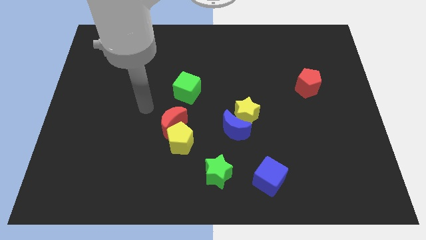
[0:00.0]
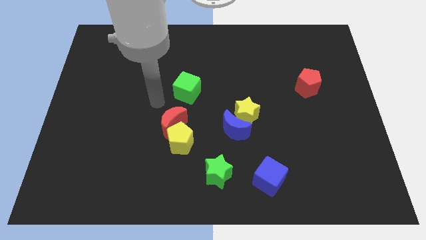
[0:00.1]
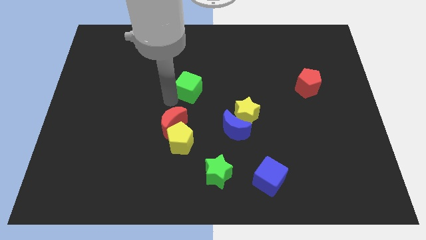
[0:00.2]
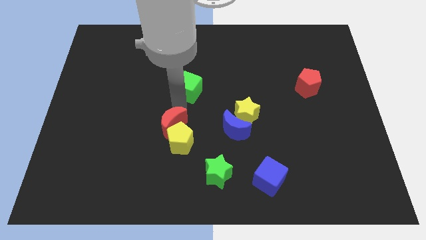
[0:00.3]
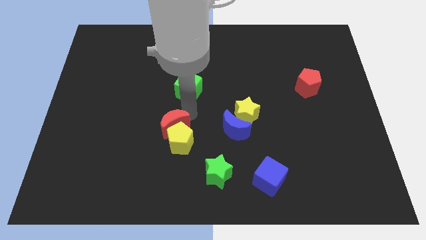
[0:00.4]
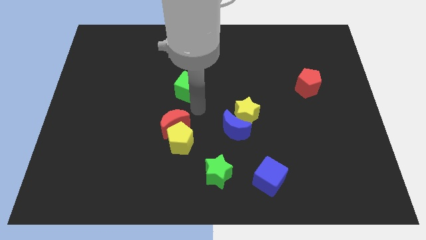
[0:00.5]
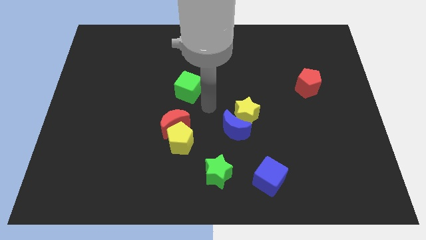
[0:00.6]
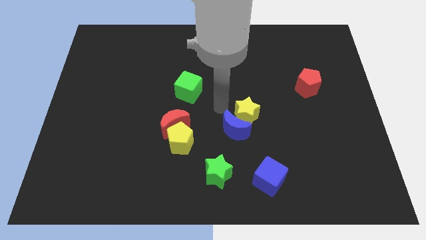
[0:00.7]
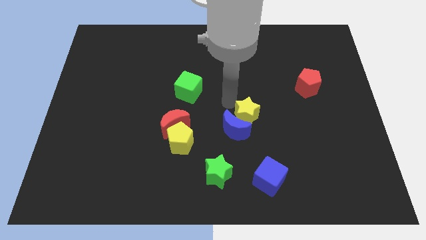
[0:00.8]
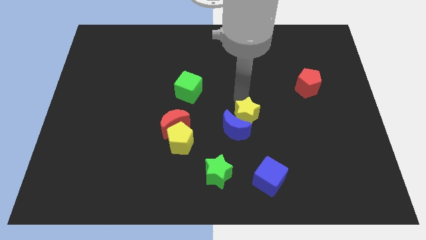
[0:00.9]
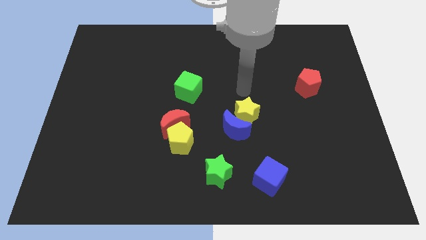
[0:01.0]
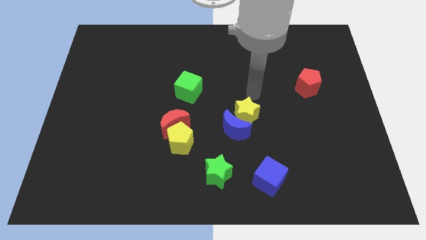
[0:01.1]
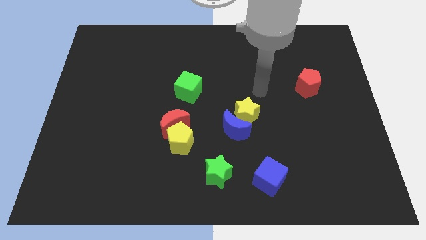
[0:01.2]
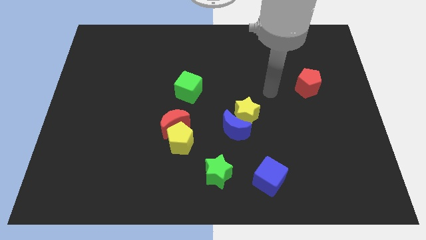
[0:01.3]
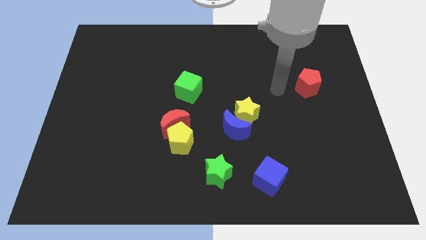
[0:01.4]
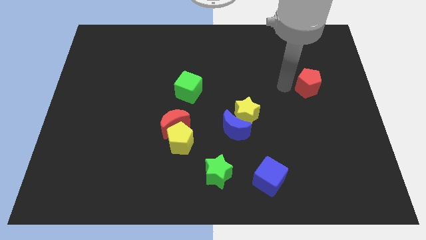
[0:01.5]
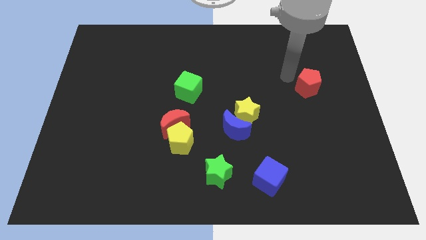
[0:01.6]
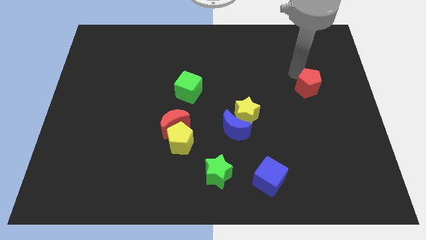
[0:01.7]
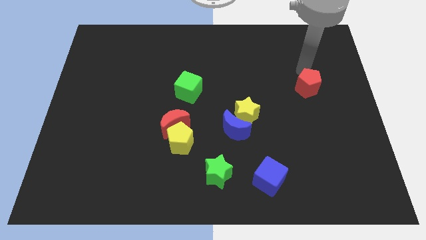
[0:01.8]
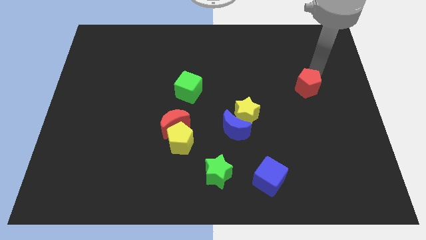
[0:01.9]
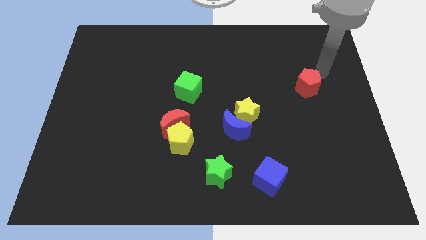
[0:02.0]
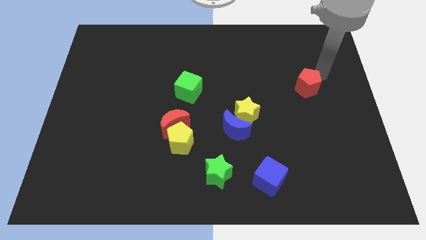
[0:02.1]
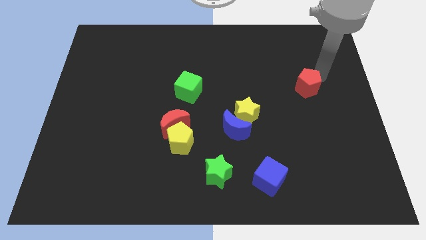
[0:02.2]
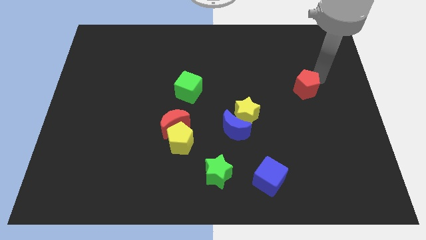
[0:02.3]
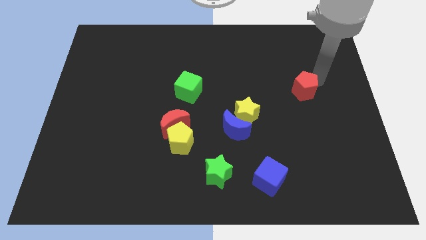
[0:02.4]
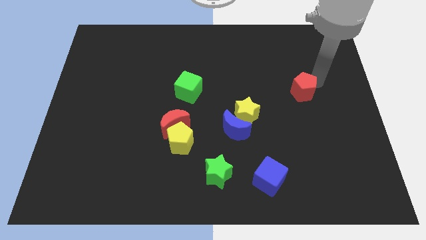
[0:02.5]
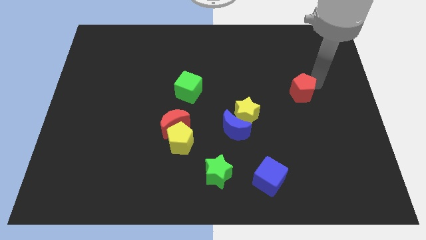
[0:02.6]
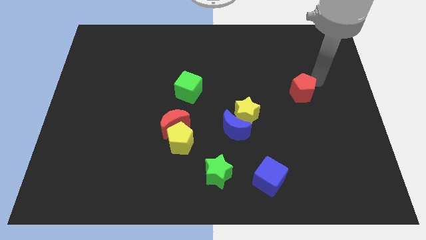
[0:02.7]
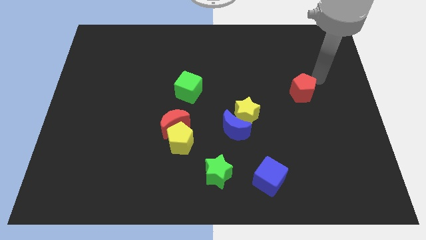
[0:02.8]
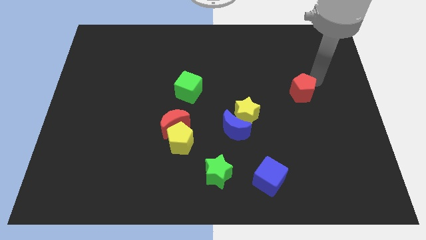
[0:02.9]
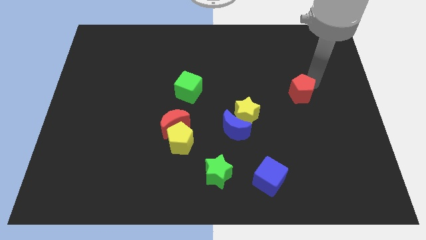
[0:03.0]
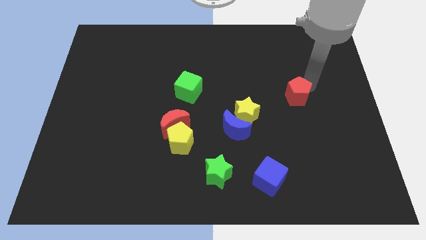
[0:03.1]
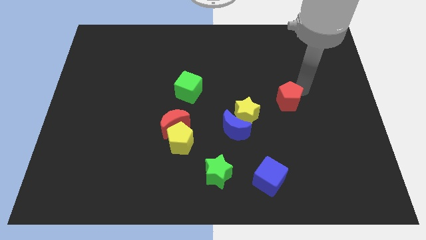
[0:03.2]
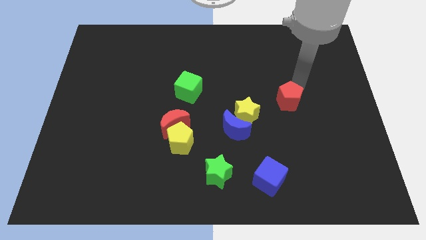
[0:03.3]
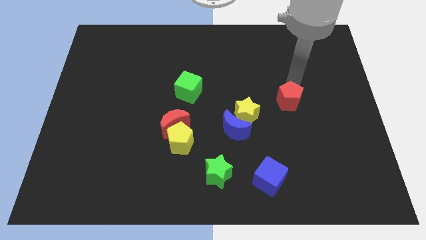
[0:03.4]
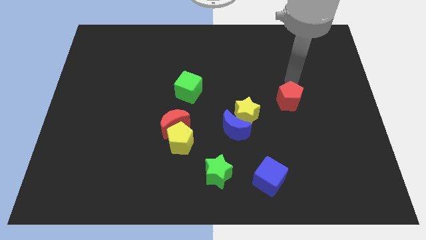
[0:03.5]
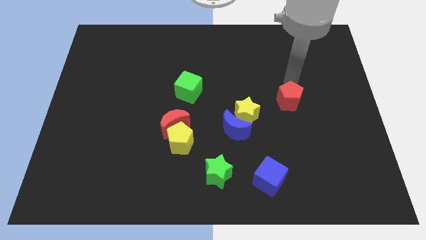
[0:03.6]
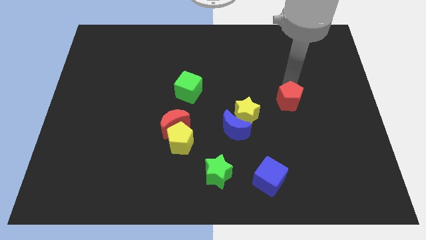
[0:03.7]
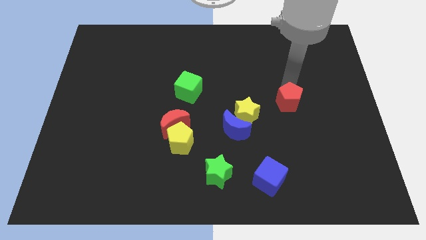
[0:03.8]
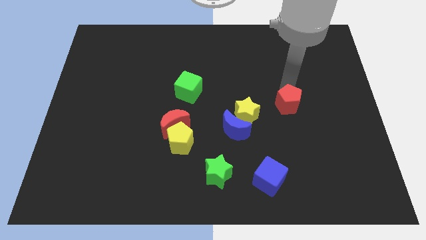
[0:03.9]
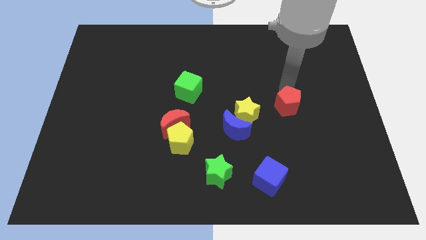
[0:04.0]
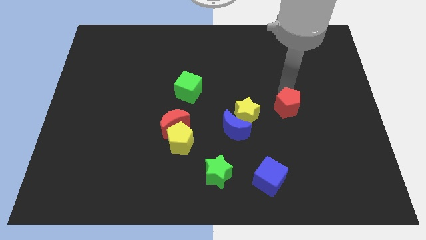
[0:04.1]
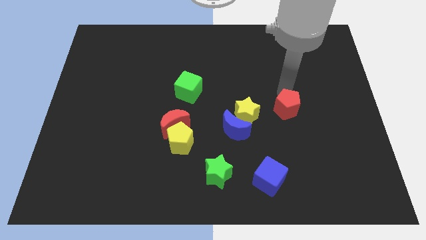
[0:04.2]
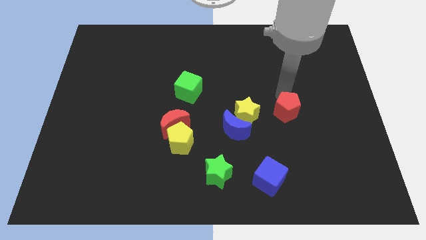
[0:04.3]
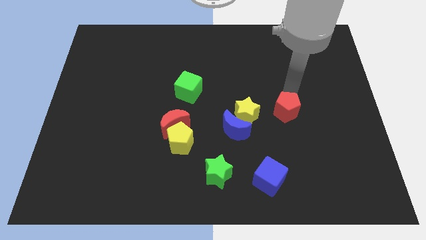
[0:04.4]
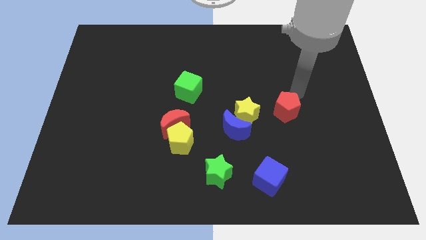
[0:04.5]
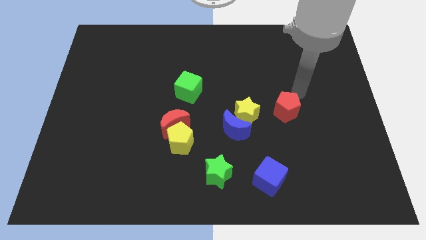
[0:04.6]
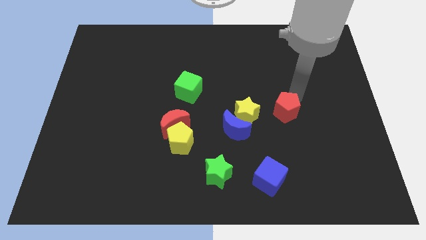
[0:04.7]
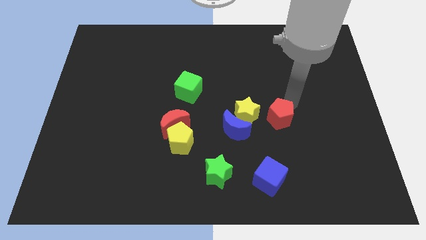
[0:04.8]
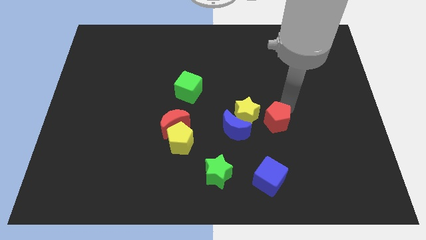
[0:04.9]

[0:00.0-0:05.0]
move the red pentagon to the top side of the blue cube

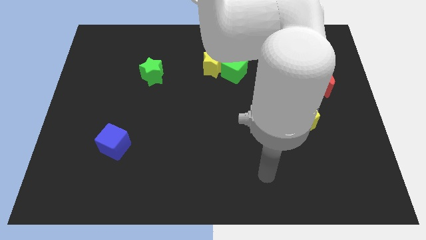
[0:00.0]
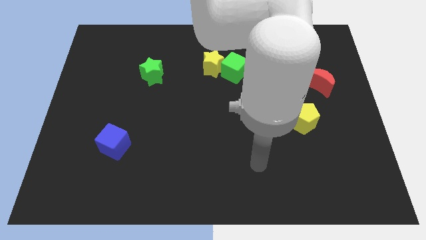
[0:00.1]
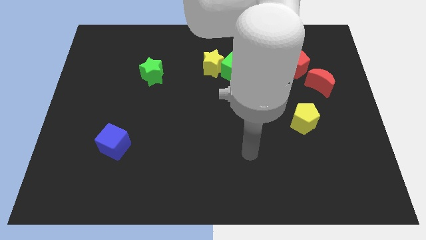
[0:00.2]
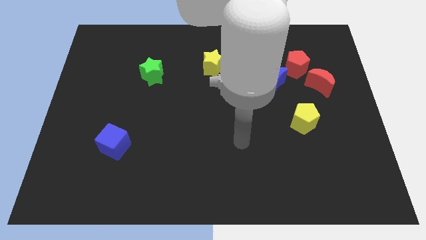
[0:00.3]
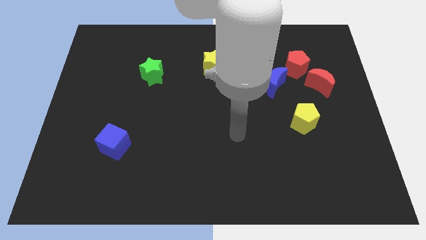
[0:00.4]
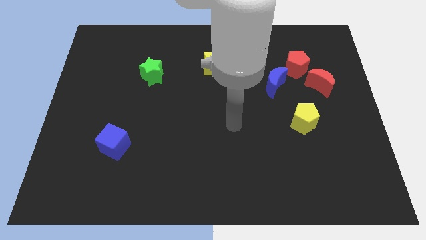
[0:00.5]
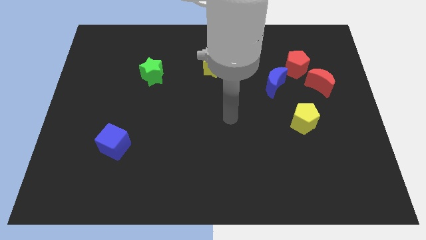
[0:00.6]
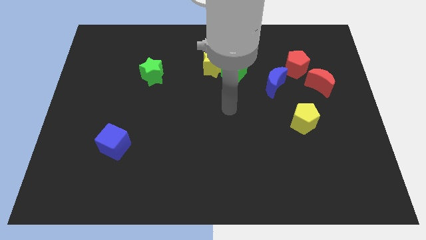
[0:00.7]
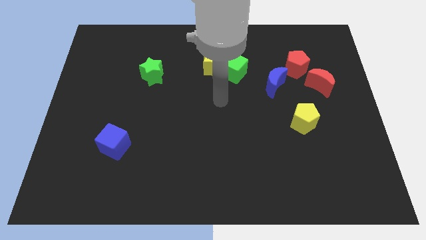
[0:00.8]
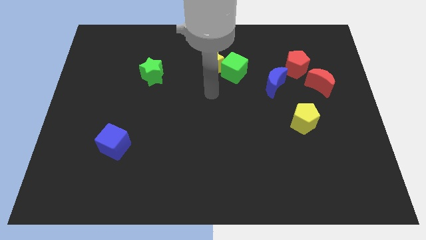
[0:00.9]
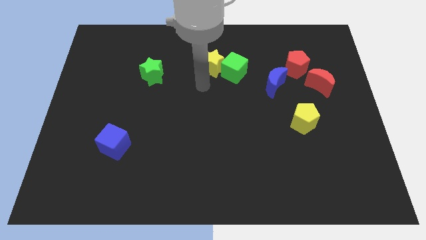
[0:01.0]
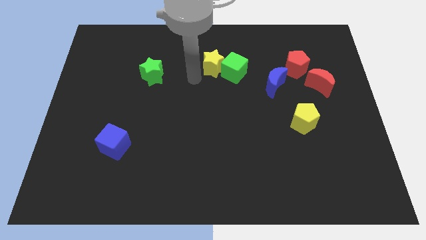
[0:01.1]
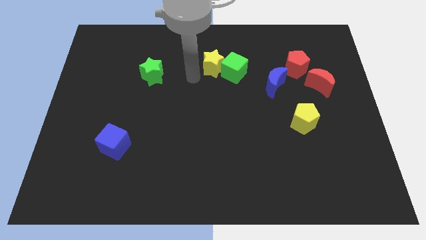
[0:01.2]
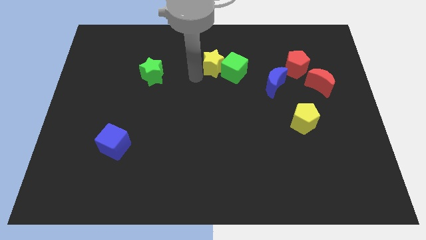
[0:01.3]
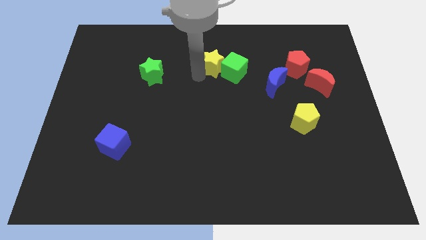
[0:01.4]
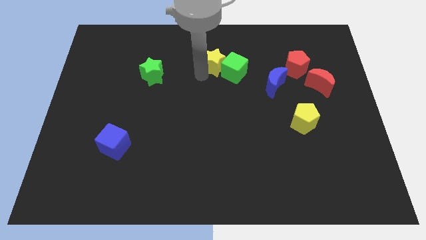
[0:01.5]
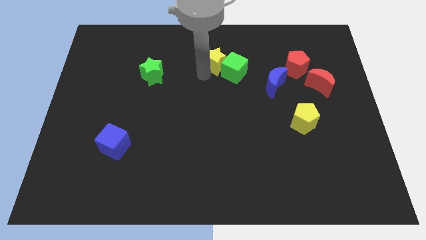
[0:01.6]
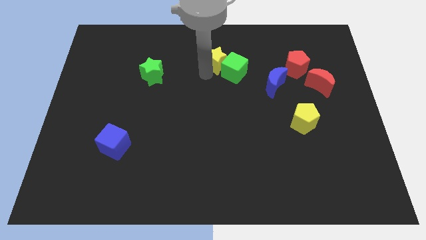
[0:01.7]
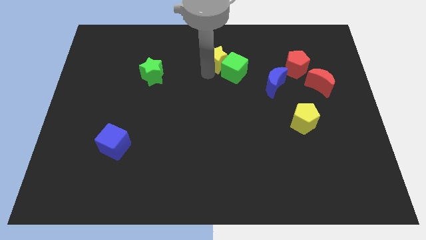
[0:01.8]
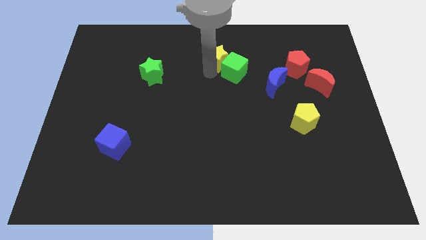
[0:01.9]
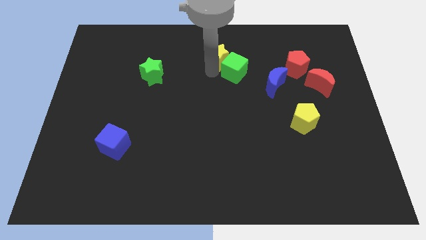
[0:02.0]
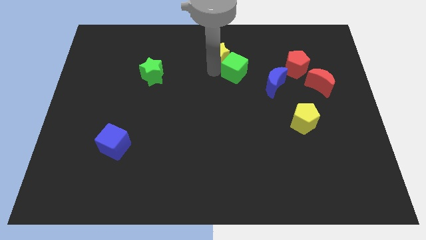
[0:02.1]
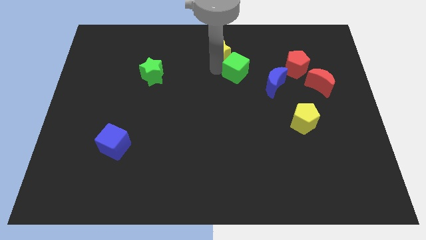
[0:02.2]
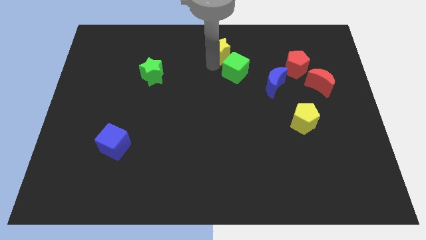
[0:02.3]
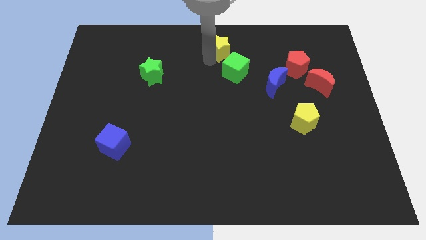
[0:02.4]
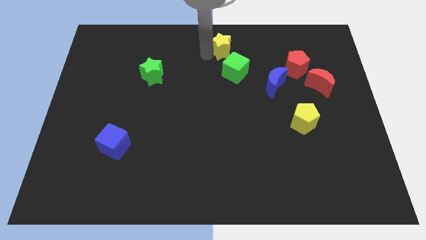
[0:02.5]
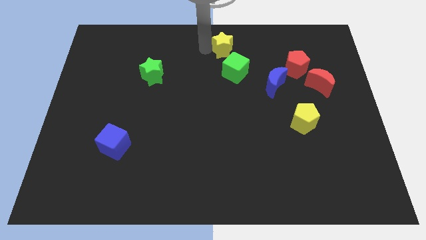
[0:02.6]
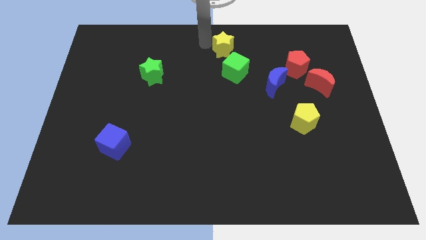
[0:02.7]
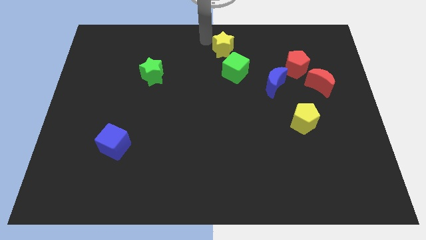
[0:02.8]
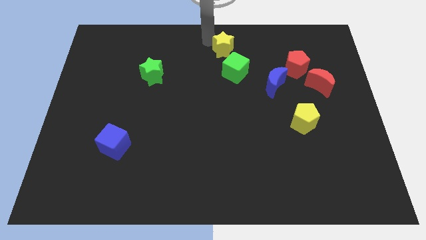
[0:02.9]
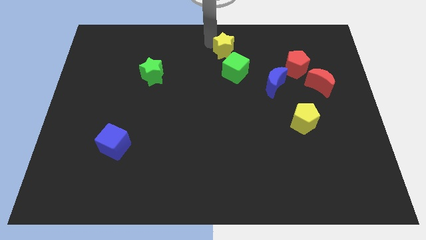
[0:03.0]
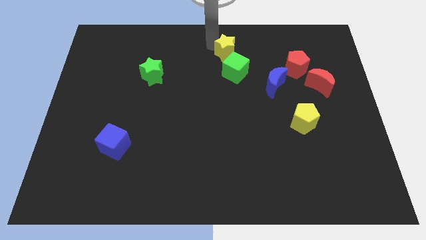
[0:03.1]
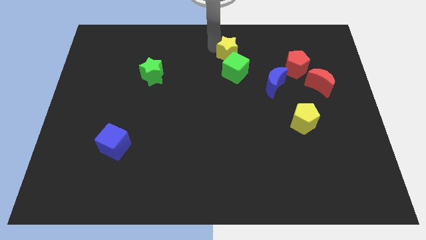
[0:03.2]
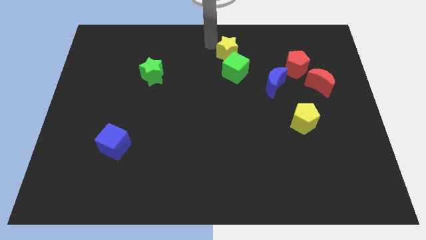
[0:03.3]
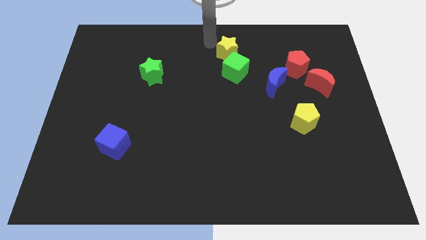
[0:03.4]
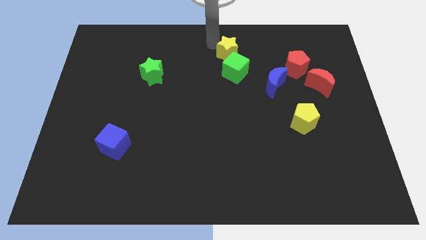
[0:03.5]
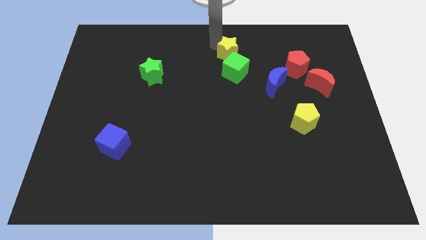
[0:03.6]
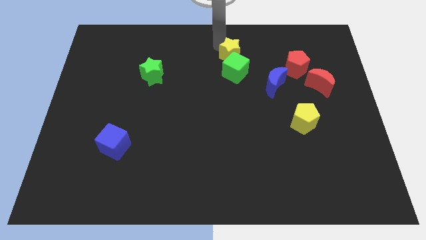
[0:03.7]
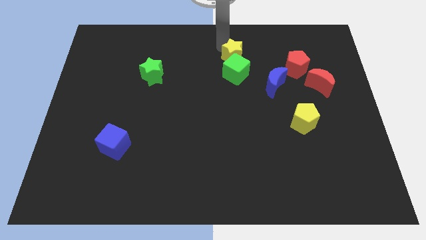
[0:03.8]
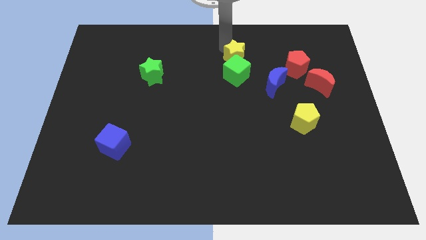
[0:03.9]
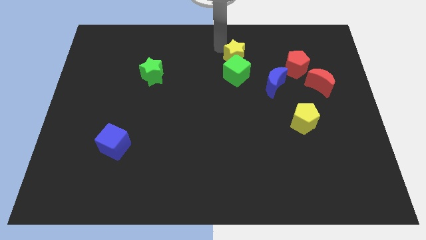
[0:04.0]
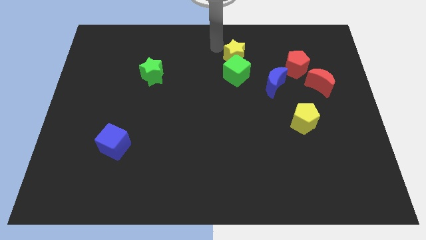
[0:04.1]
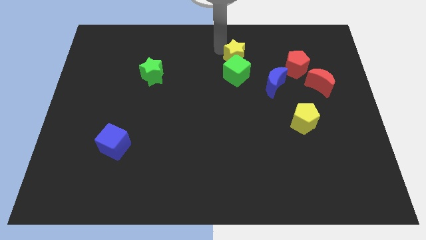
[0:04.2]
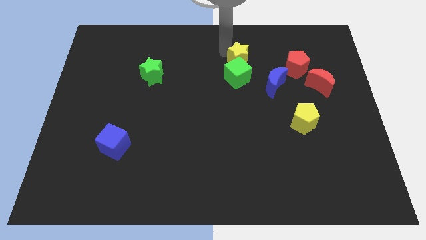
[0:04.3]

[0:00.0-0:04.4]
move the yellow star to the left side of the red pentagon
